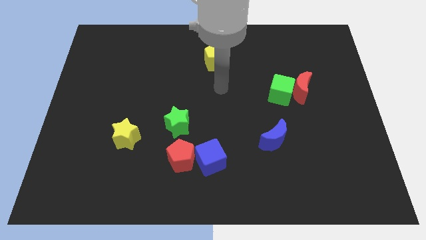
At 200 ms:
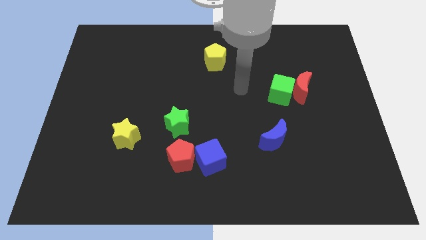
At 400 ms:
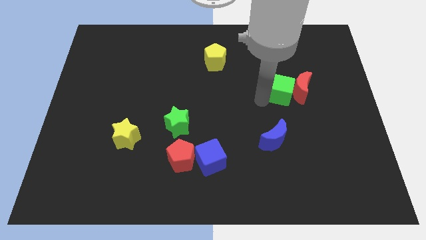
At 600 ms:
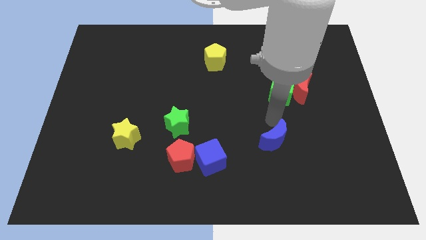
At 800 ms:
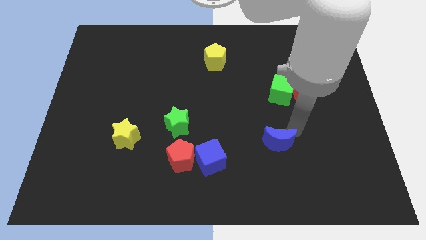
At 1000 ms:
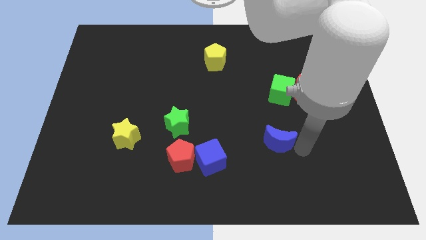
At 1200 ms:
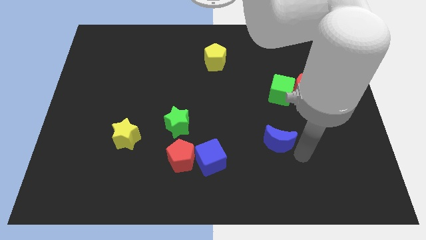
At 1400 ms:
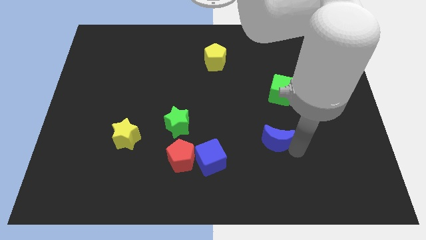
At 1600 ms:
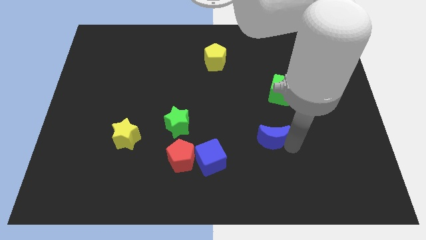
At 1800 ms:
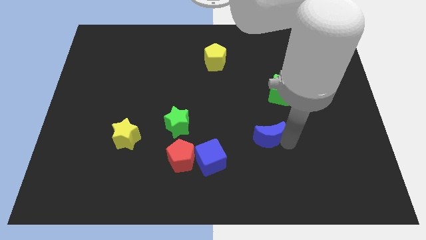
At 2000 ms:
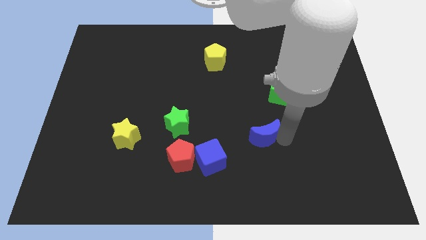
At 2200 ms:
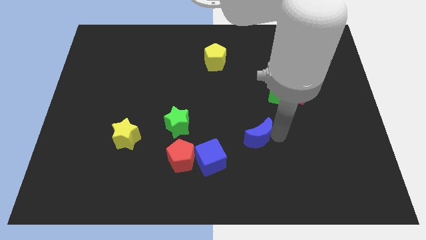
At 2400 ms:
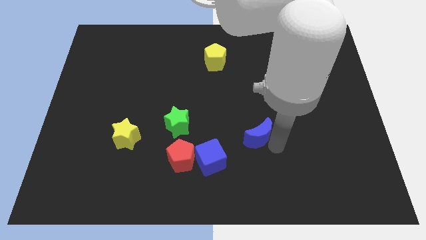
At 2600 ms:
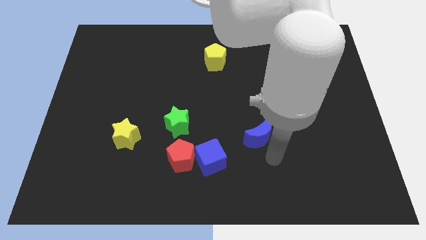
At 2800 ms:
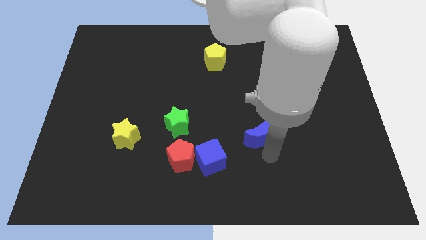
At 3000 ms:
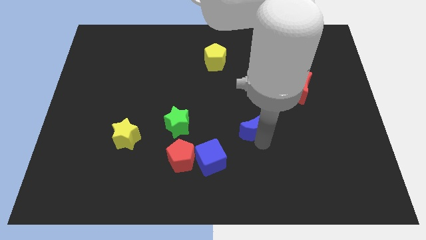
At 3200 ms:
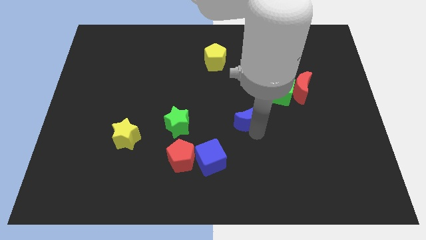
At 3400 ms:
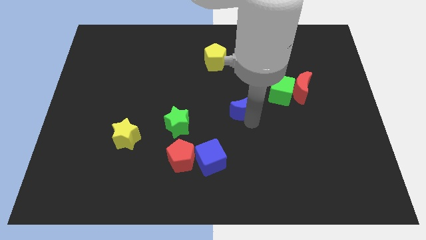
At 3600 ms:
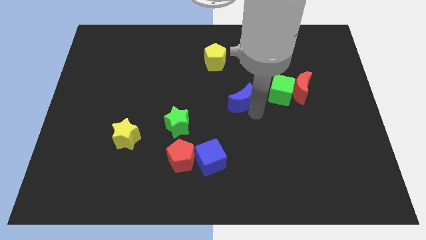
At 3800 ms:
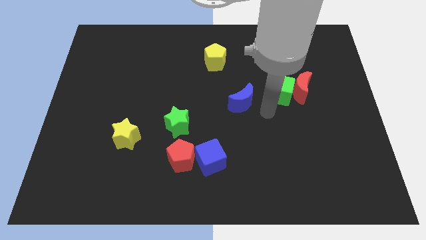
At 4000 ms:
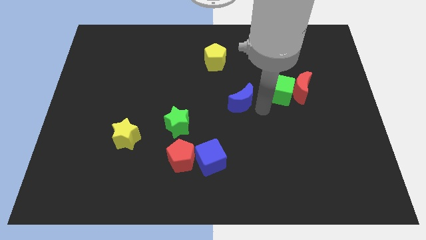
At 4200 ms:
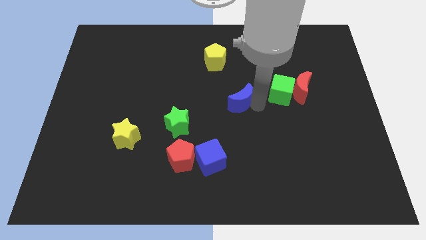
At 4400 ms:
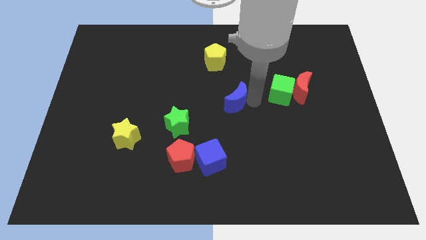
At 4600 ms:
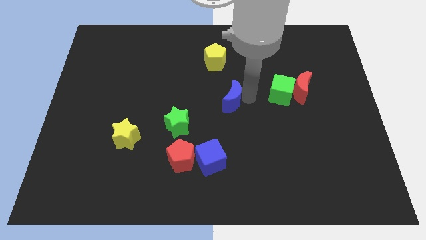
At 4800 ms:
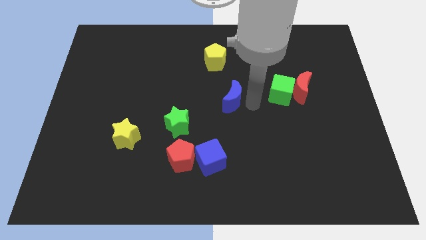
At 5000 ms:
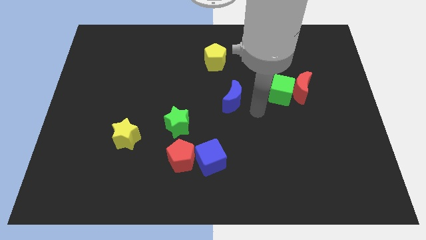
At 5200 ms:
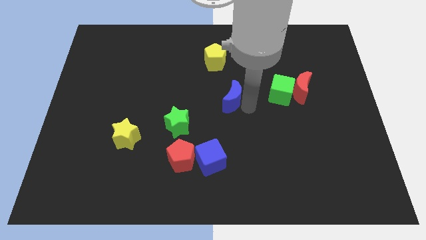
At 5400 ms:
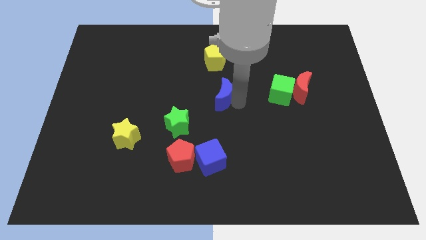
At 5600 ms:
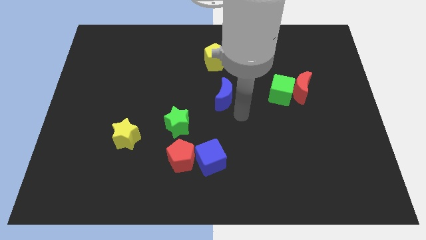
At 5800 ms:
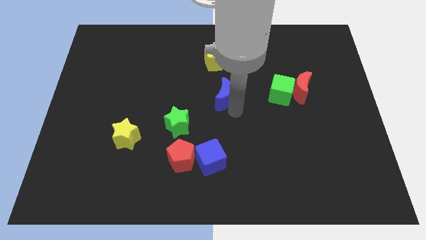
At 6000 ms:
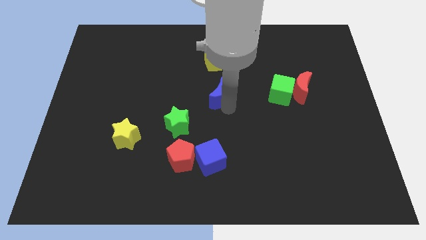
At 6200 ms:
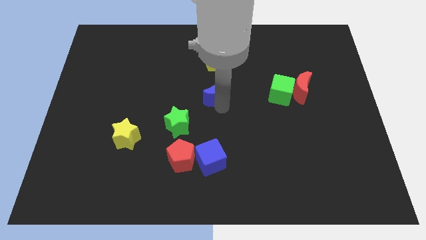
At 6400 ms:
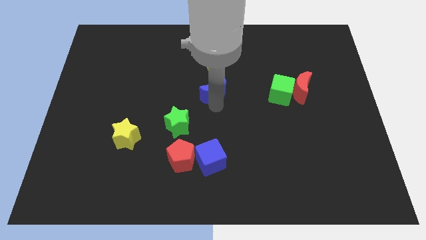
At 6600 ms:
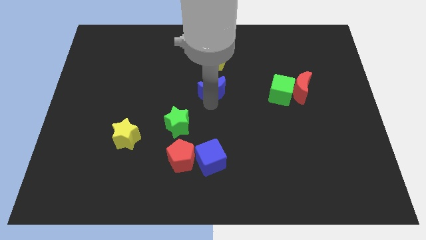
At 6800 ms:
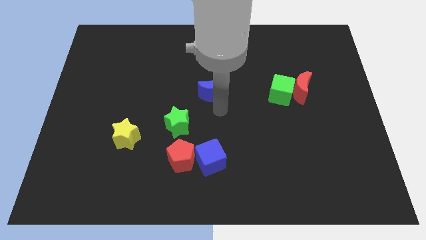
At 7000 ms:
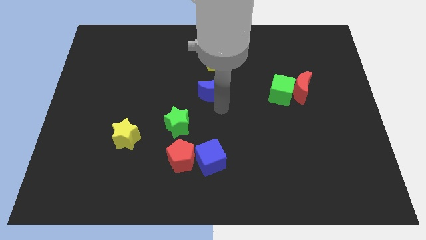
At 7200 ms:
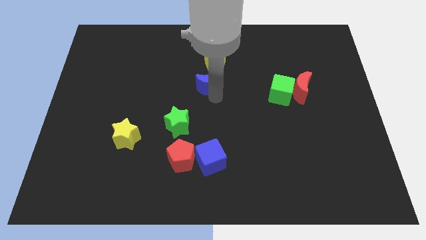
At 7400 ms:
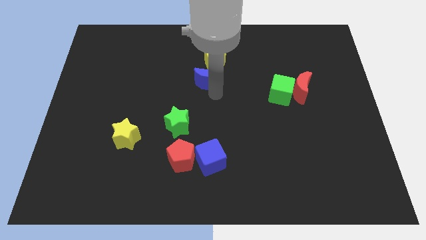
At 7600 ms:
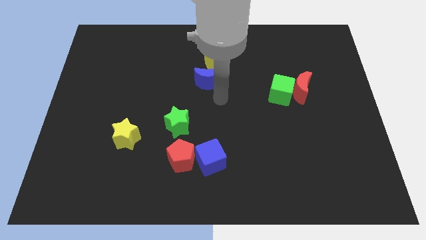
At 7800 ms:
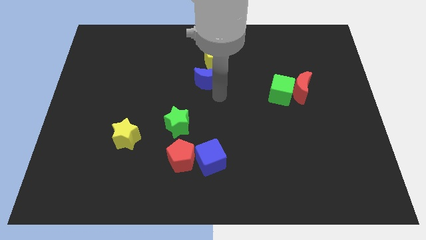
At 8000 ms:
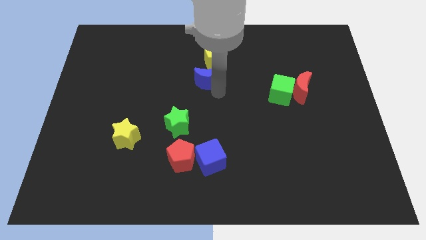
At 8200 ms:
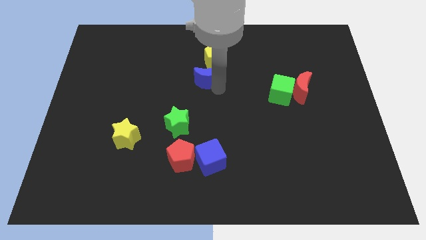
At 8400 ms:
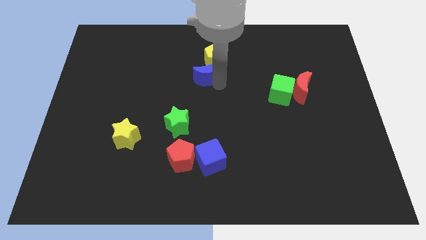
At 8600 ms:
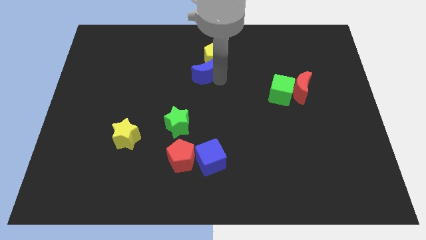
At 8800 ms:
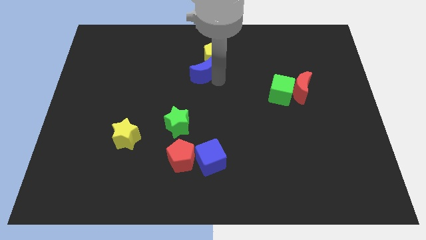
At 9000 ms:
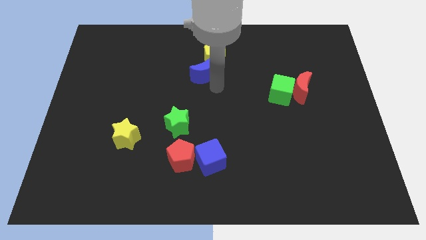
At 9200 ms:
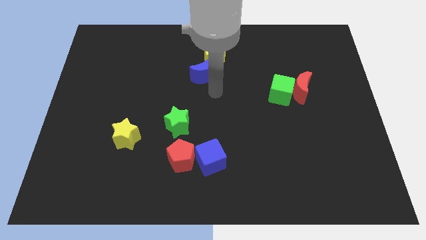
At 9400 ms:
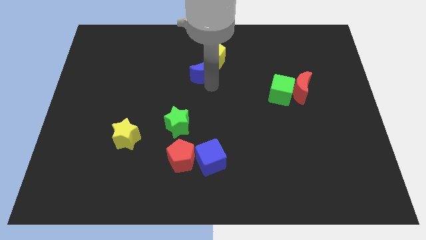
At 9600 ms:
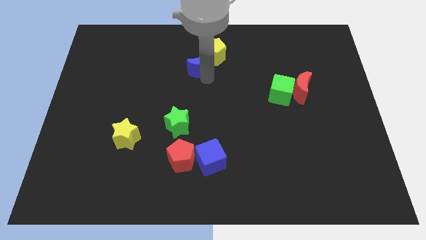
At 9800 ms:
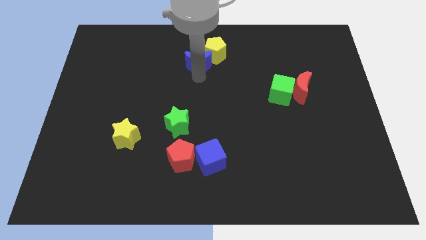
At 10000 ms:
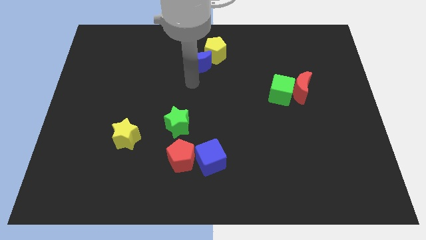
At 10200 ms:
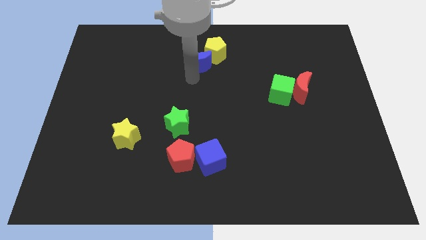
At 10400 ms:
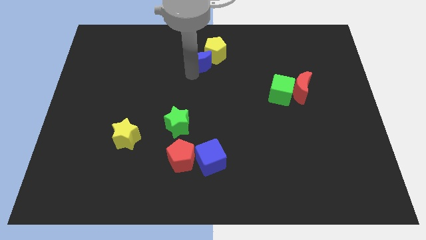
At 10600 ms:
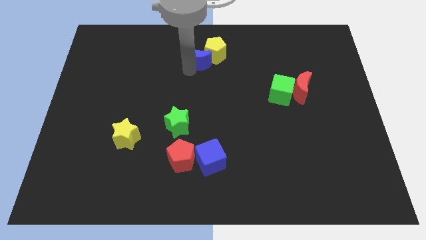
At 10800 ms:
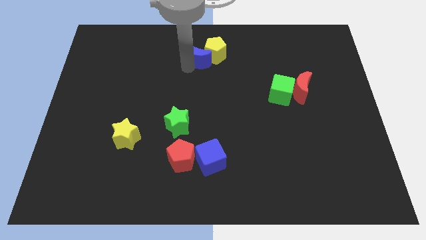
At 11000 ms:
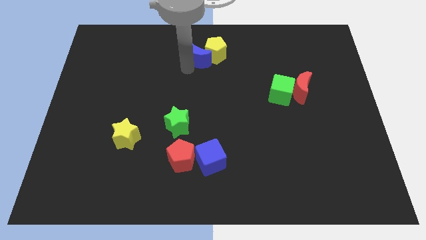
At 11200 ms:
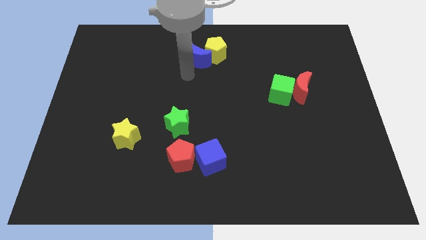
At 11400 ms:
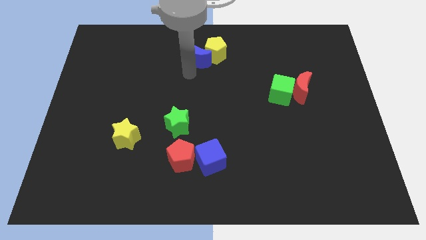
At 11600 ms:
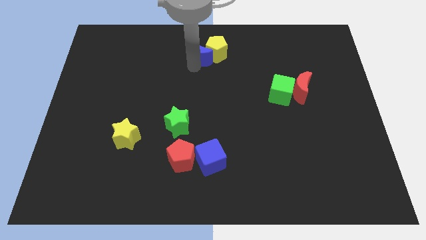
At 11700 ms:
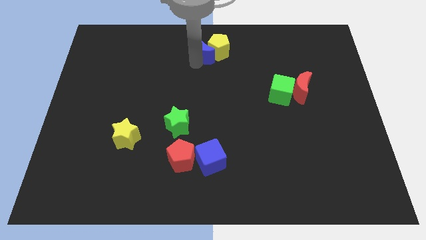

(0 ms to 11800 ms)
slide the blue moon to the top

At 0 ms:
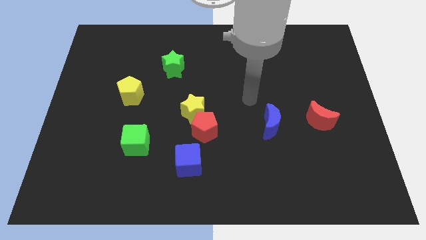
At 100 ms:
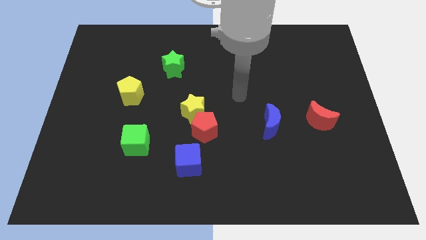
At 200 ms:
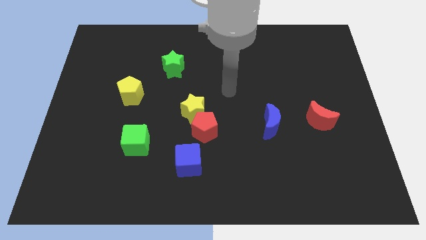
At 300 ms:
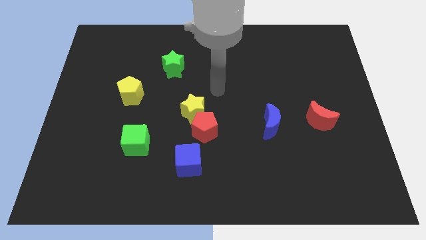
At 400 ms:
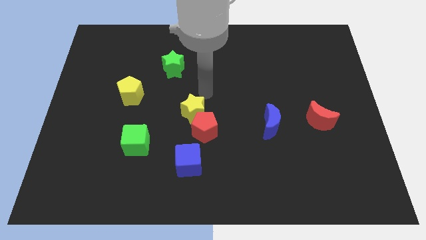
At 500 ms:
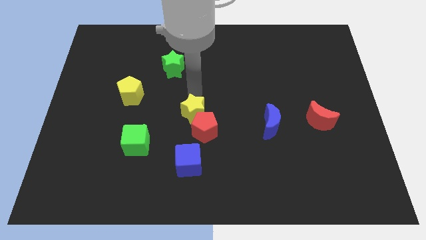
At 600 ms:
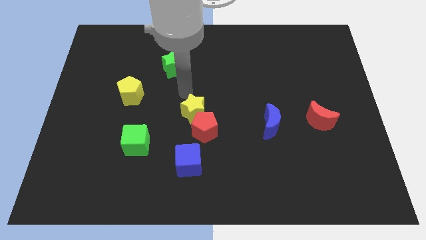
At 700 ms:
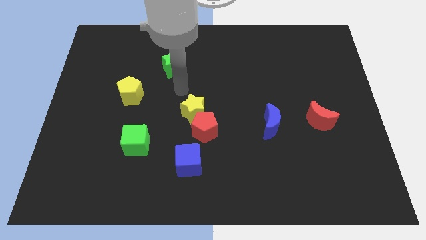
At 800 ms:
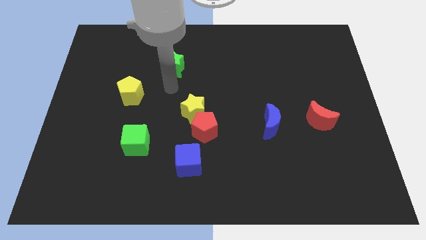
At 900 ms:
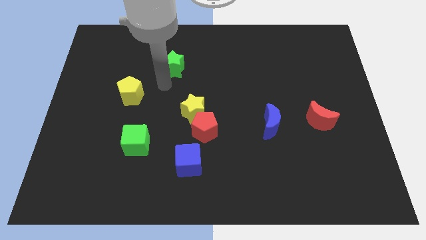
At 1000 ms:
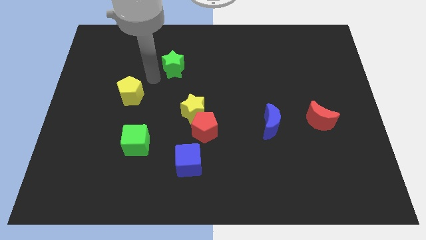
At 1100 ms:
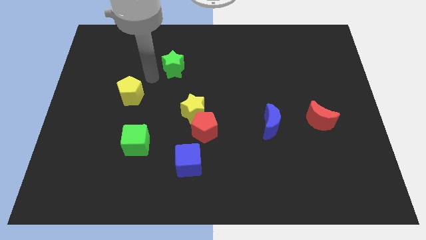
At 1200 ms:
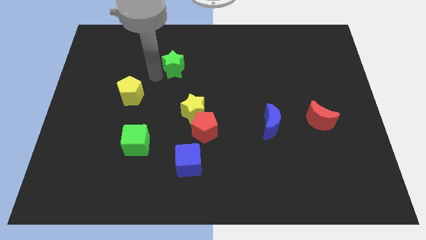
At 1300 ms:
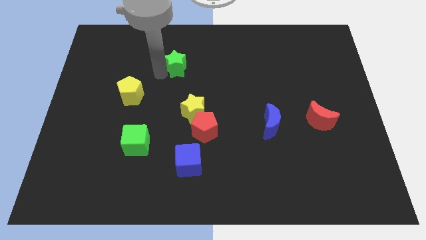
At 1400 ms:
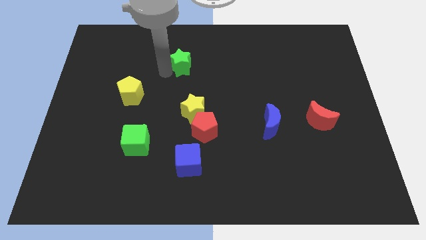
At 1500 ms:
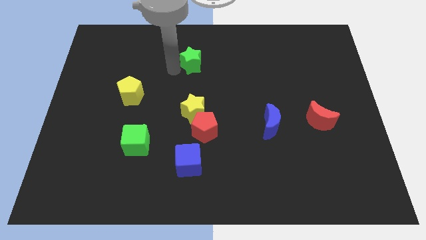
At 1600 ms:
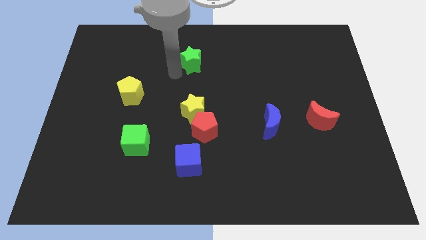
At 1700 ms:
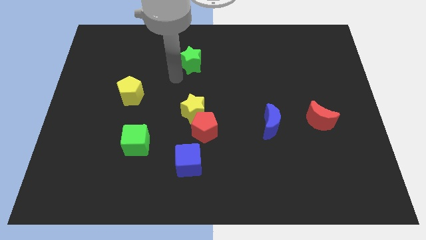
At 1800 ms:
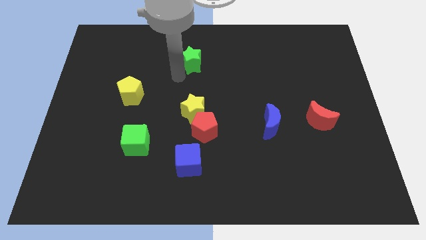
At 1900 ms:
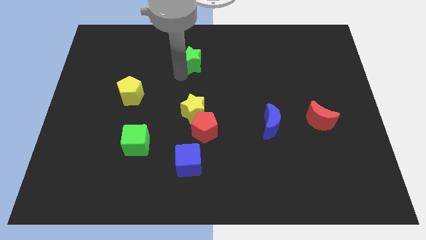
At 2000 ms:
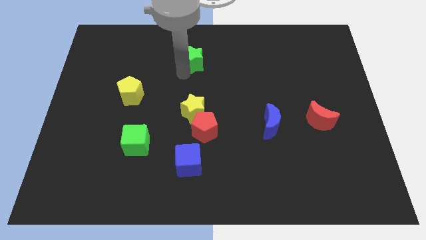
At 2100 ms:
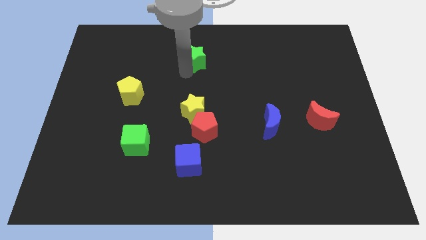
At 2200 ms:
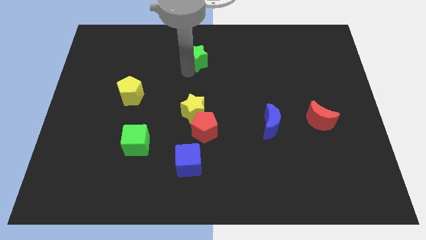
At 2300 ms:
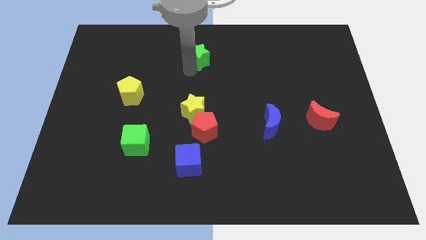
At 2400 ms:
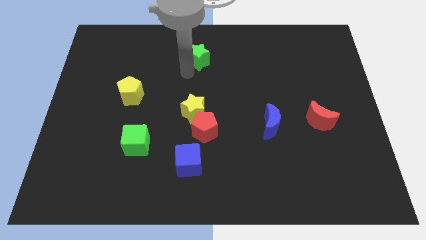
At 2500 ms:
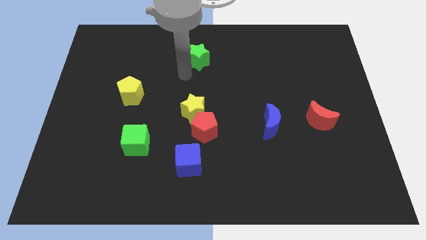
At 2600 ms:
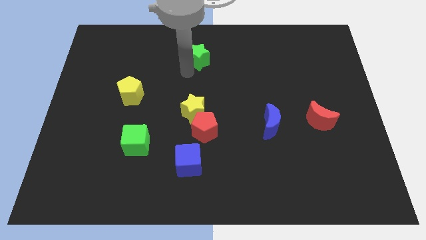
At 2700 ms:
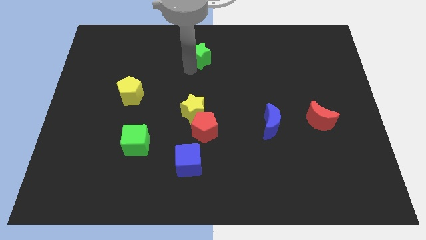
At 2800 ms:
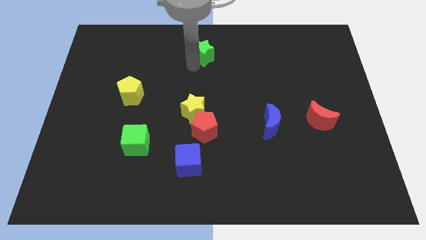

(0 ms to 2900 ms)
push the green star to the top side
